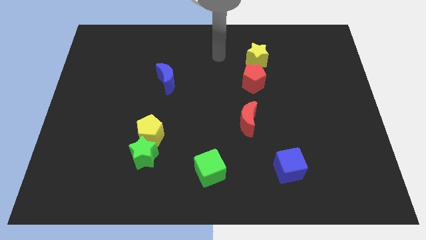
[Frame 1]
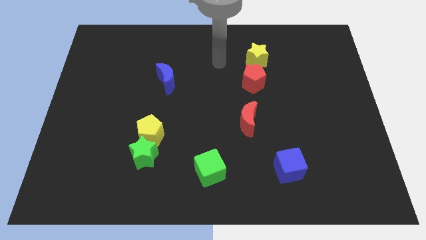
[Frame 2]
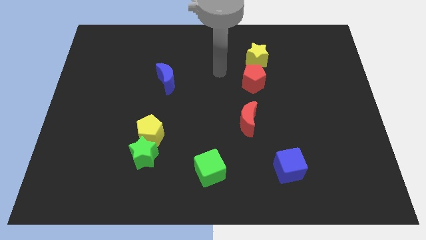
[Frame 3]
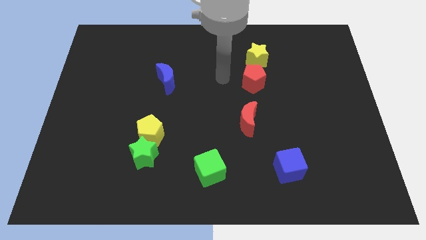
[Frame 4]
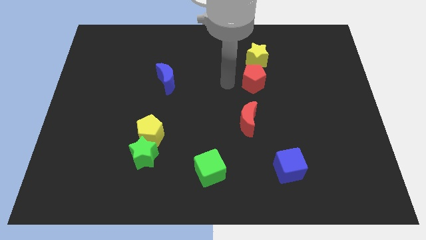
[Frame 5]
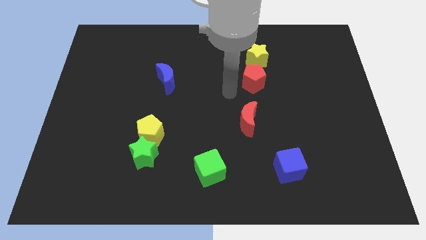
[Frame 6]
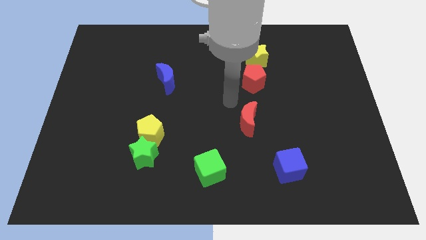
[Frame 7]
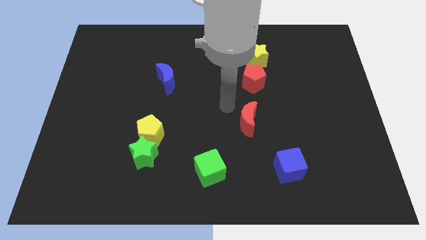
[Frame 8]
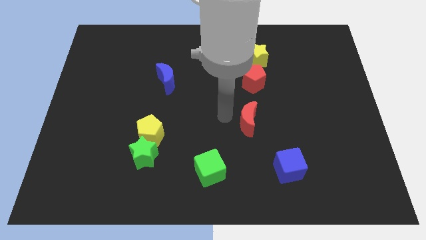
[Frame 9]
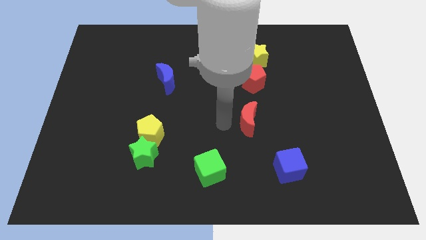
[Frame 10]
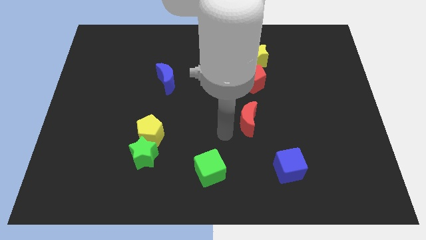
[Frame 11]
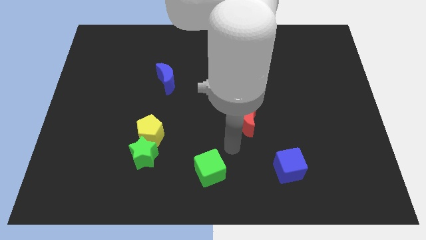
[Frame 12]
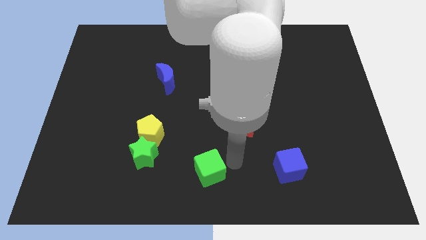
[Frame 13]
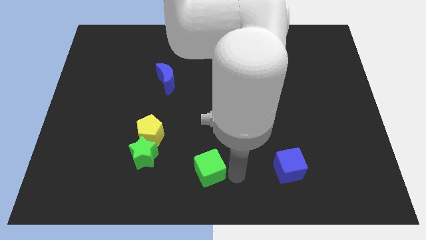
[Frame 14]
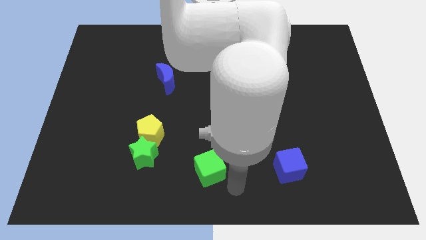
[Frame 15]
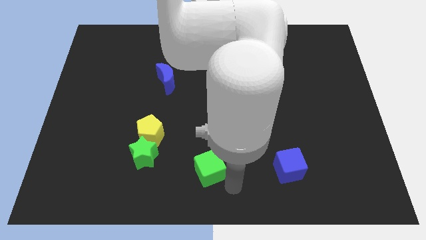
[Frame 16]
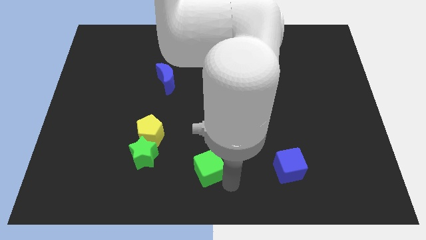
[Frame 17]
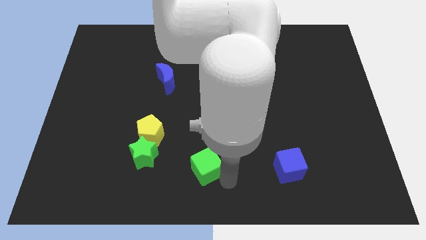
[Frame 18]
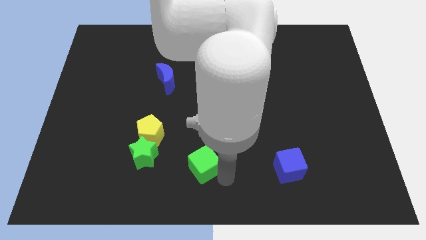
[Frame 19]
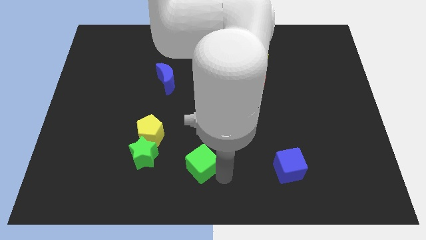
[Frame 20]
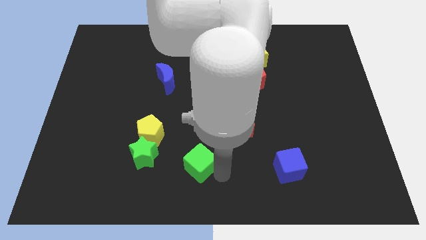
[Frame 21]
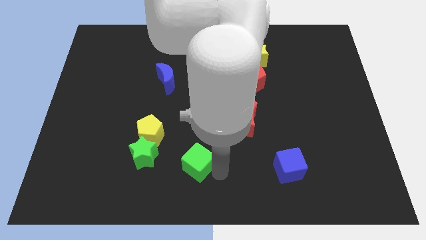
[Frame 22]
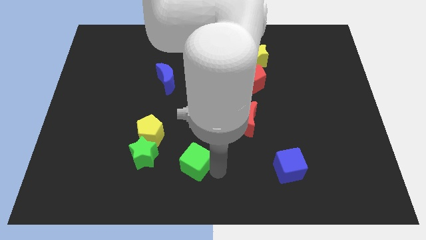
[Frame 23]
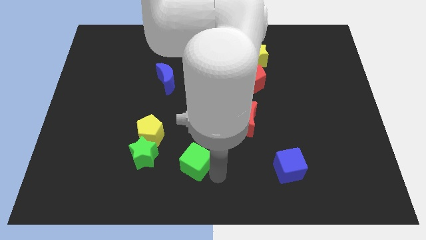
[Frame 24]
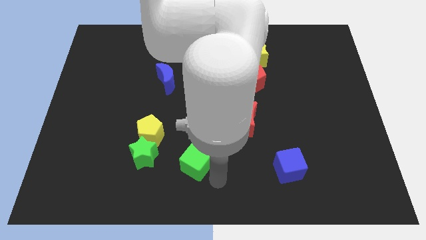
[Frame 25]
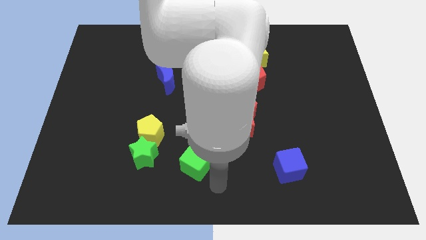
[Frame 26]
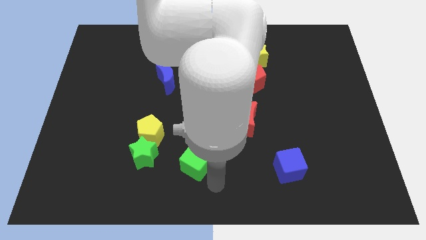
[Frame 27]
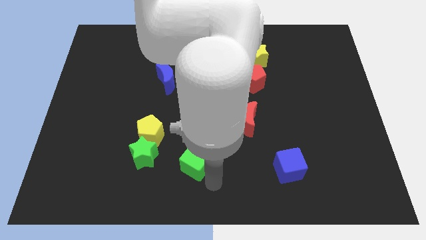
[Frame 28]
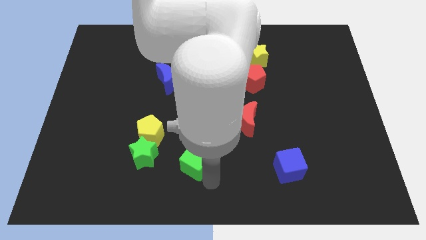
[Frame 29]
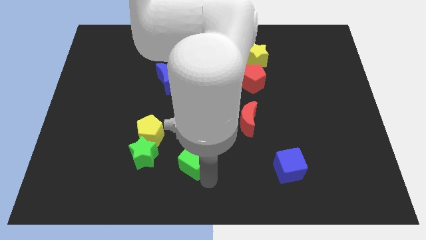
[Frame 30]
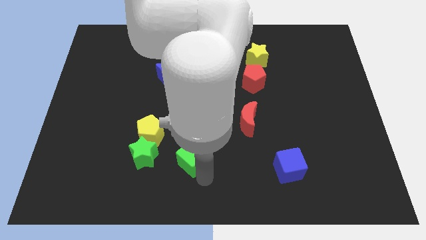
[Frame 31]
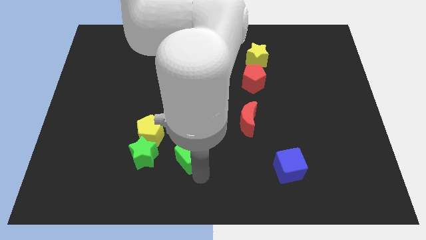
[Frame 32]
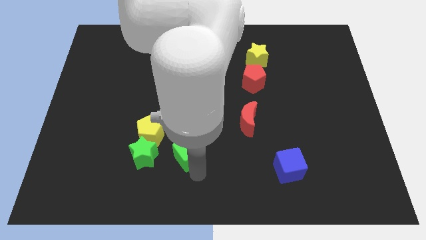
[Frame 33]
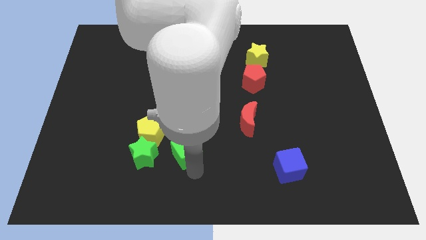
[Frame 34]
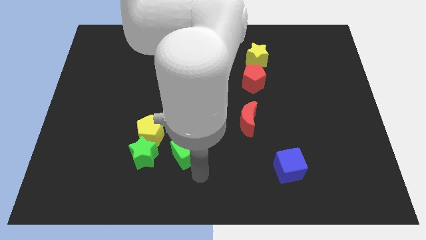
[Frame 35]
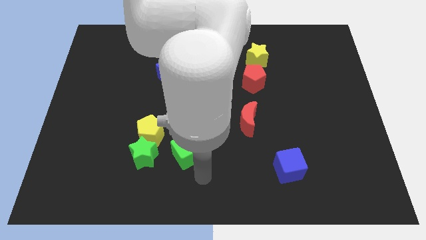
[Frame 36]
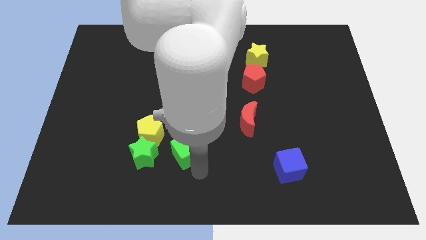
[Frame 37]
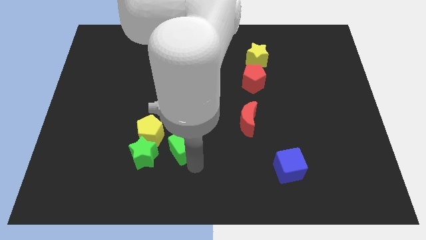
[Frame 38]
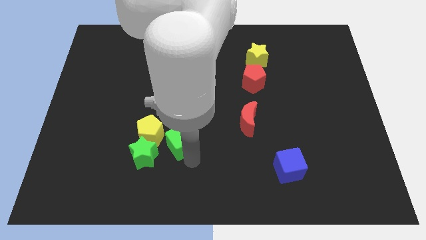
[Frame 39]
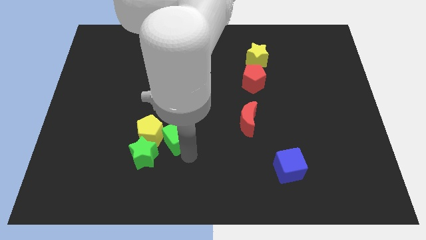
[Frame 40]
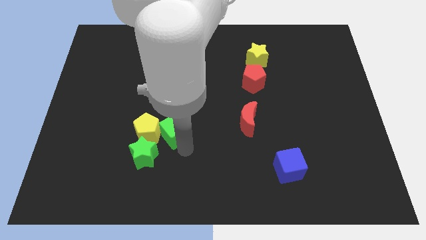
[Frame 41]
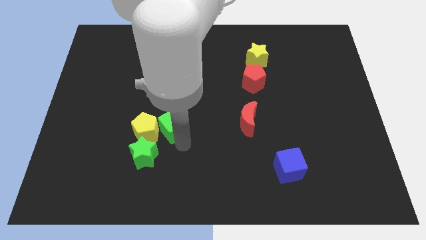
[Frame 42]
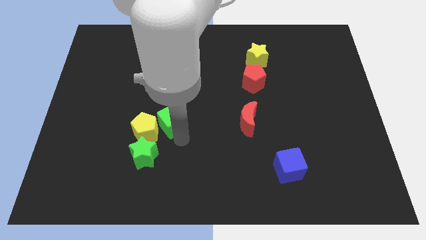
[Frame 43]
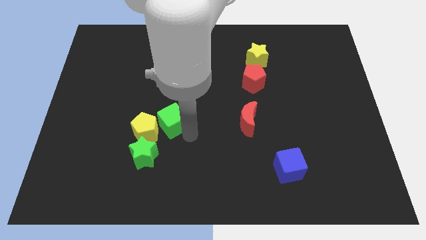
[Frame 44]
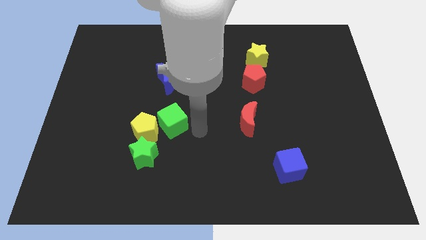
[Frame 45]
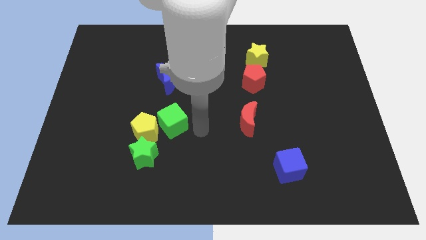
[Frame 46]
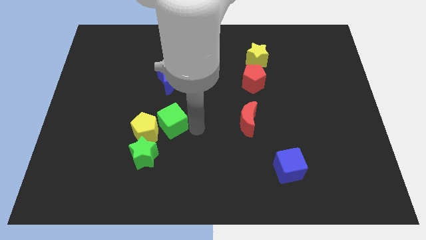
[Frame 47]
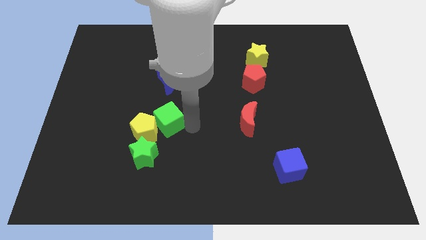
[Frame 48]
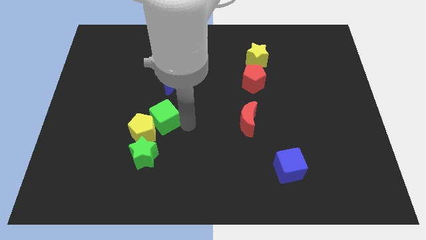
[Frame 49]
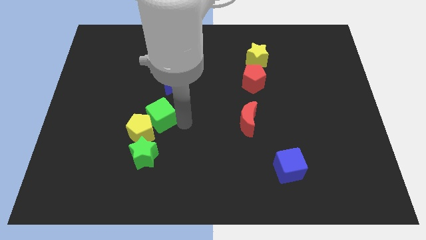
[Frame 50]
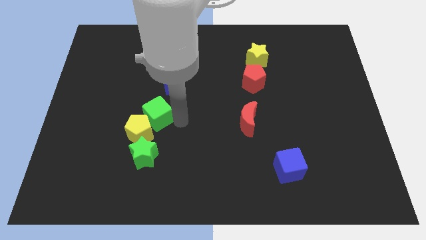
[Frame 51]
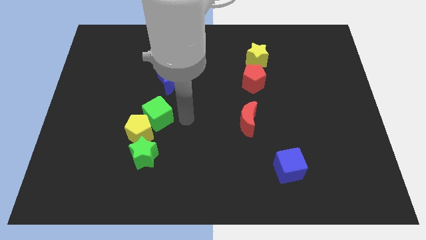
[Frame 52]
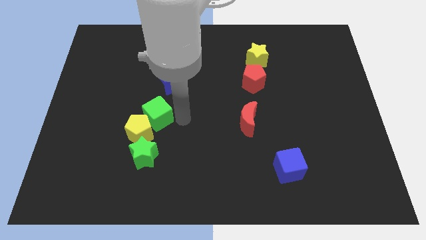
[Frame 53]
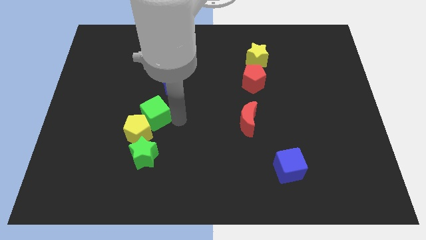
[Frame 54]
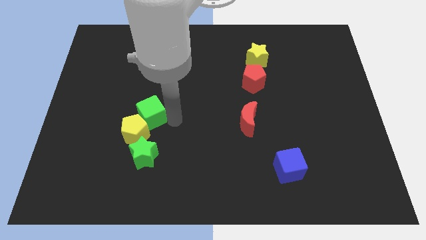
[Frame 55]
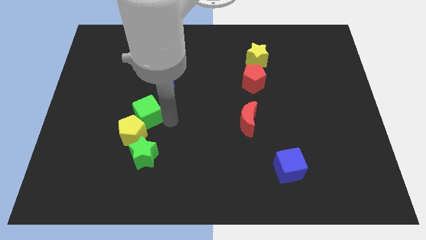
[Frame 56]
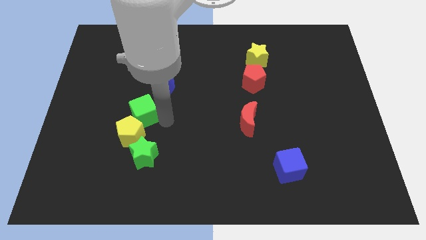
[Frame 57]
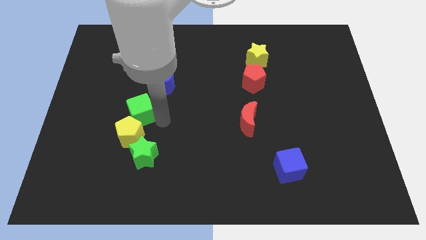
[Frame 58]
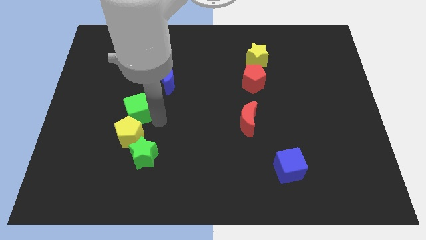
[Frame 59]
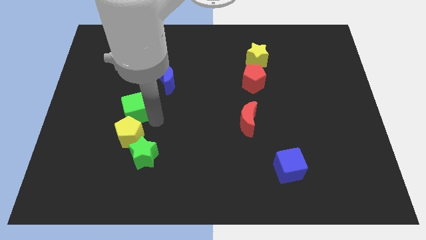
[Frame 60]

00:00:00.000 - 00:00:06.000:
move the green cube to the top left of the yellow pentagon
